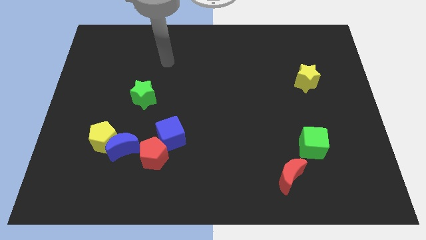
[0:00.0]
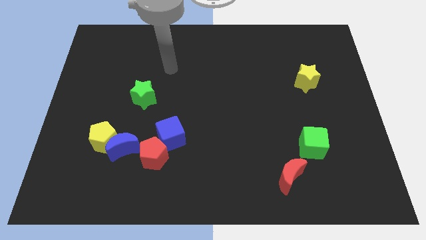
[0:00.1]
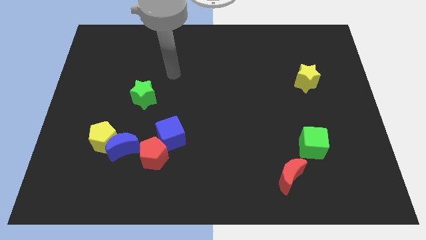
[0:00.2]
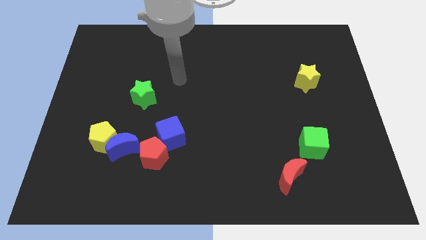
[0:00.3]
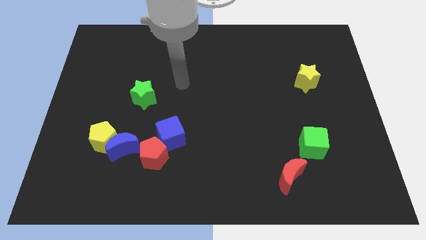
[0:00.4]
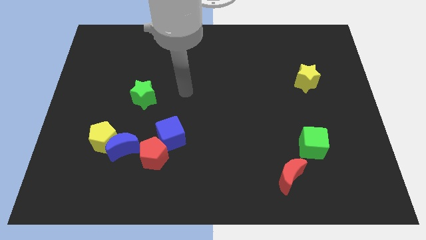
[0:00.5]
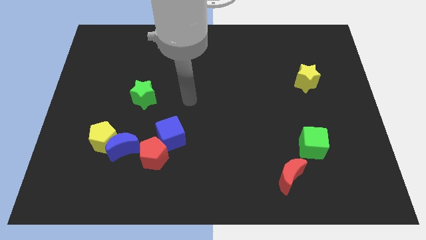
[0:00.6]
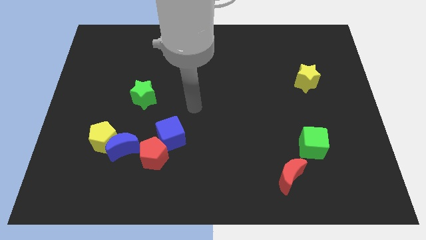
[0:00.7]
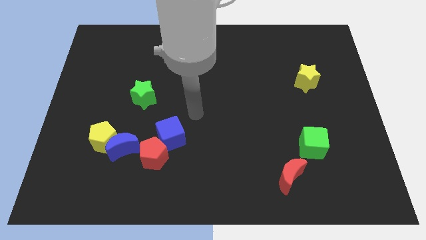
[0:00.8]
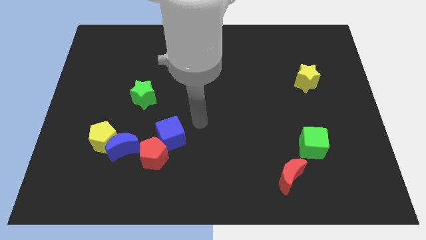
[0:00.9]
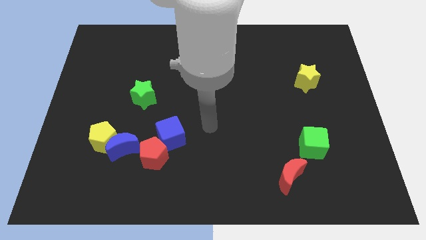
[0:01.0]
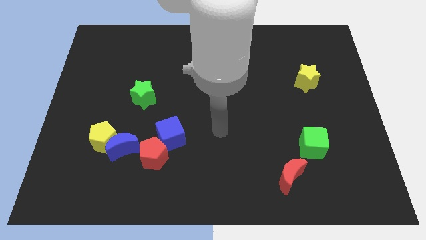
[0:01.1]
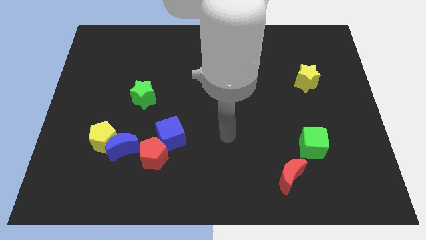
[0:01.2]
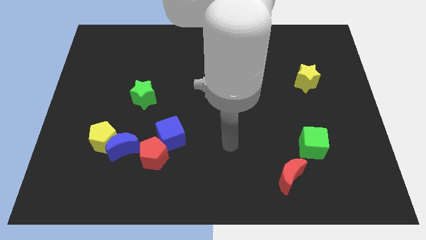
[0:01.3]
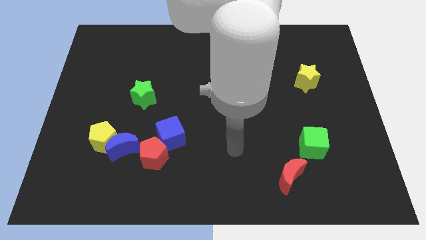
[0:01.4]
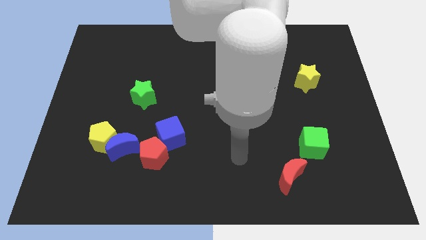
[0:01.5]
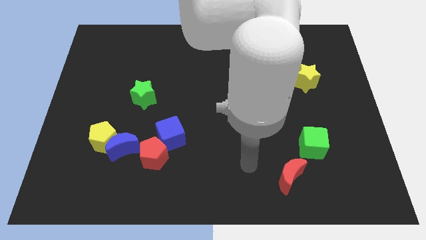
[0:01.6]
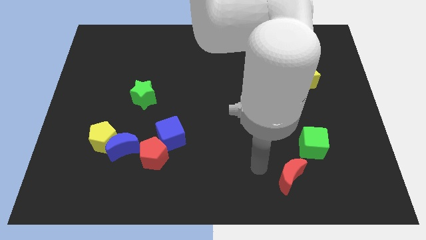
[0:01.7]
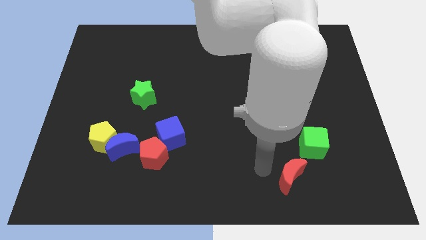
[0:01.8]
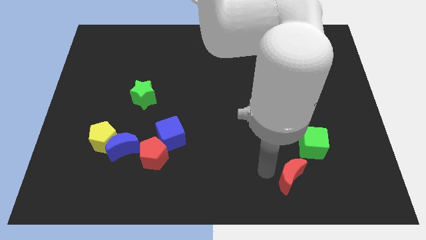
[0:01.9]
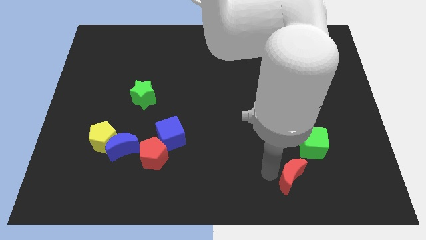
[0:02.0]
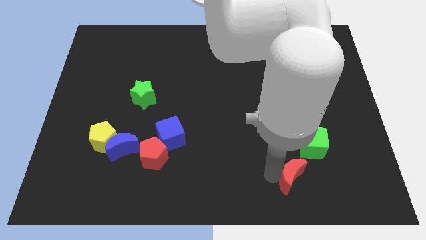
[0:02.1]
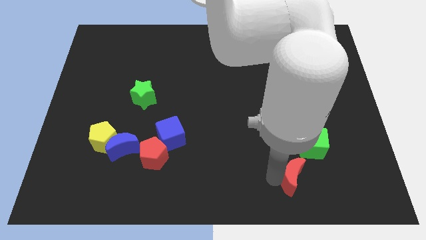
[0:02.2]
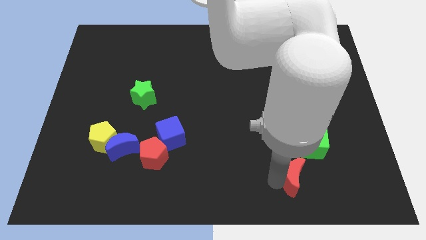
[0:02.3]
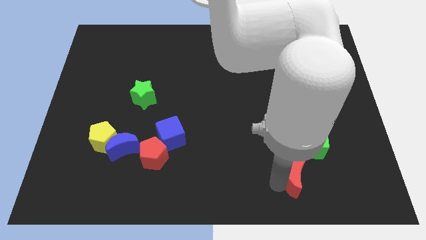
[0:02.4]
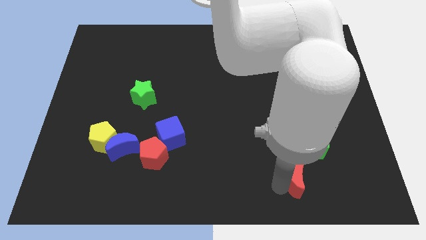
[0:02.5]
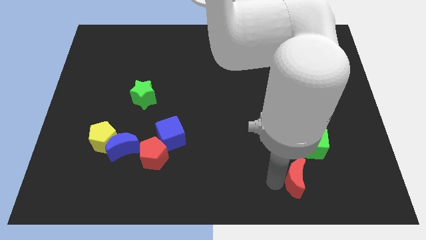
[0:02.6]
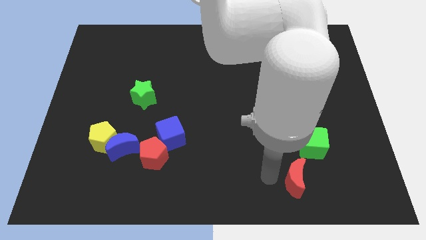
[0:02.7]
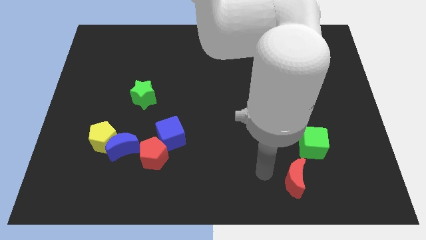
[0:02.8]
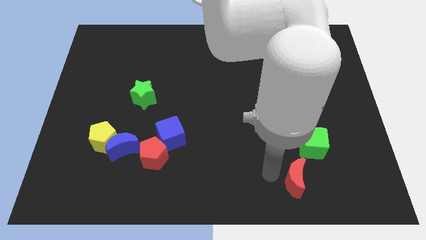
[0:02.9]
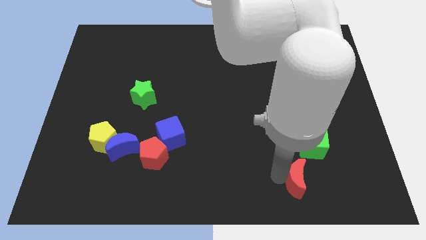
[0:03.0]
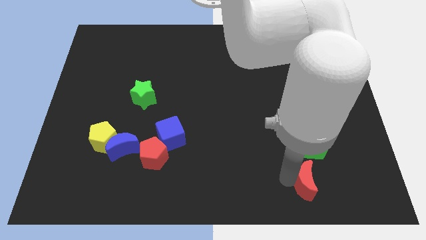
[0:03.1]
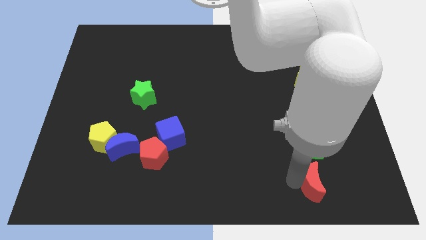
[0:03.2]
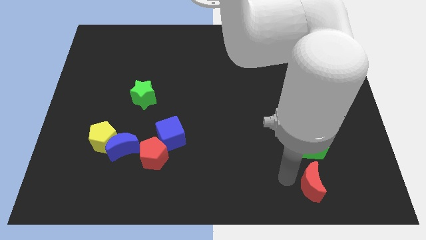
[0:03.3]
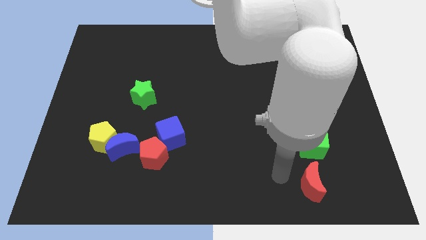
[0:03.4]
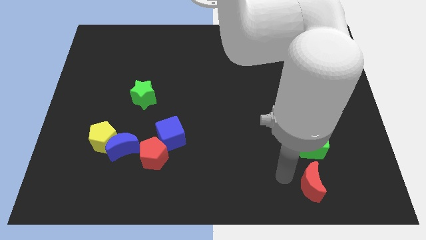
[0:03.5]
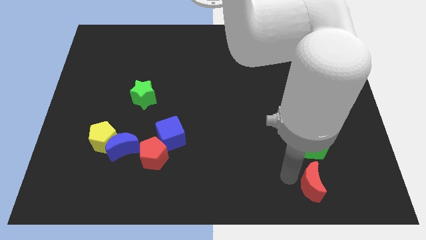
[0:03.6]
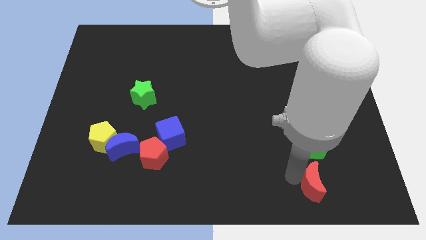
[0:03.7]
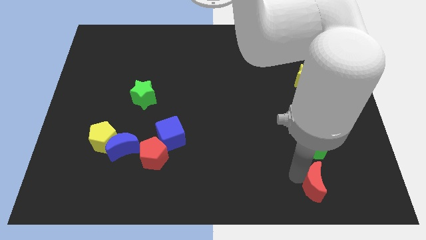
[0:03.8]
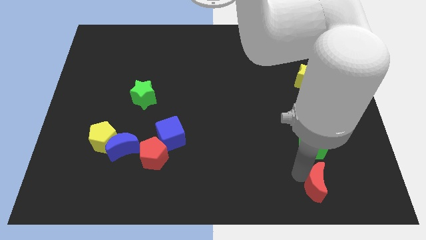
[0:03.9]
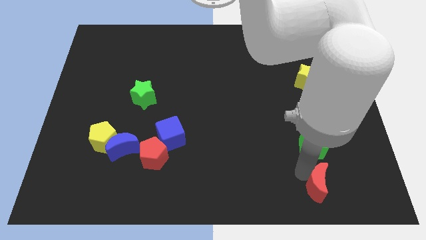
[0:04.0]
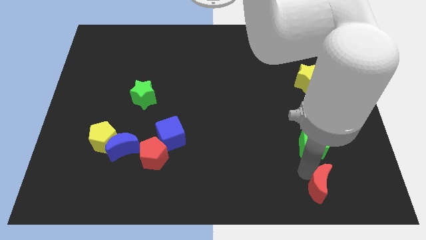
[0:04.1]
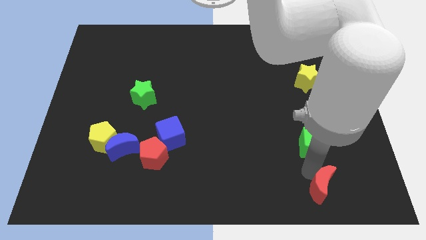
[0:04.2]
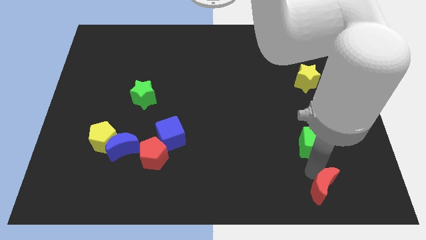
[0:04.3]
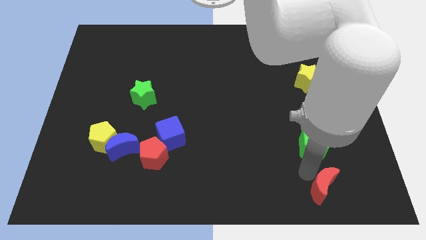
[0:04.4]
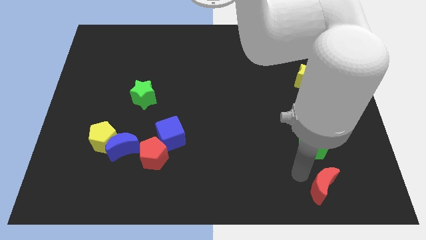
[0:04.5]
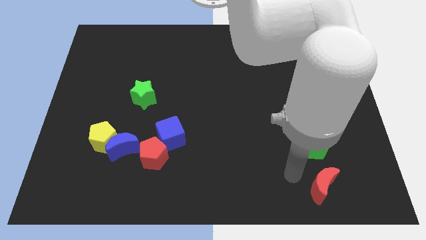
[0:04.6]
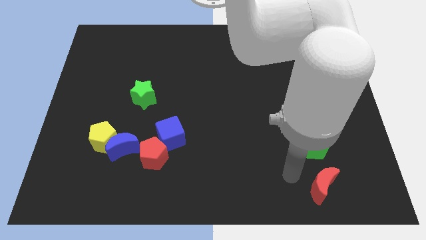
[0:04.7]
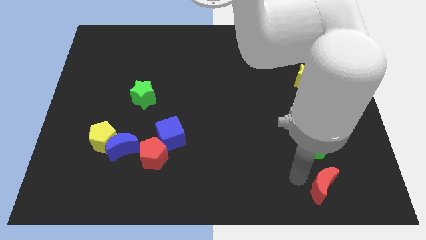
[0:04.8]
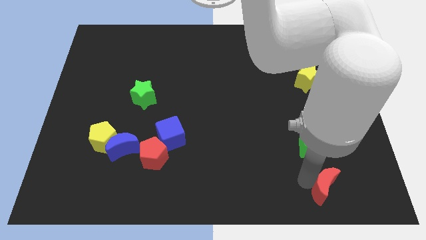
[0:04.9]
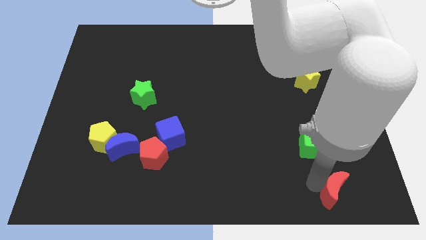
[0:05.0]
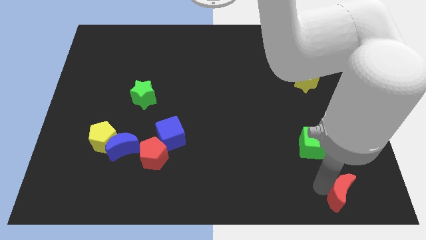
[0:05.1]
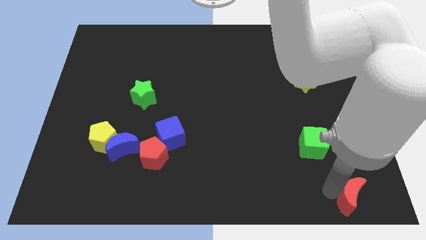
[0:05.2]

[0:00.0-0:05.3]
slide the red moon to the bottom right of the board

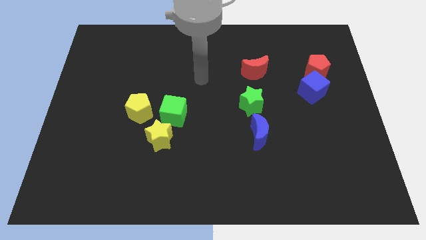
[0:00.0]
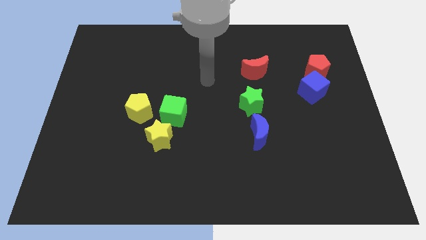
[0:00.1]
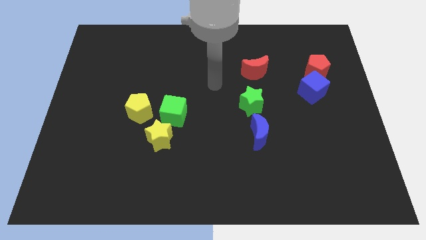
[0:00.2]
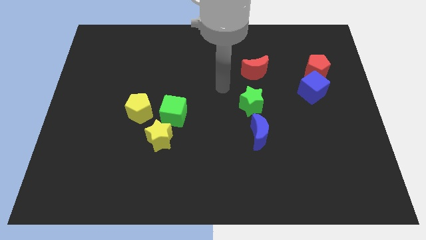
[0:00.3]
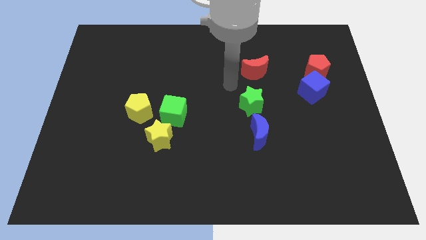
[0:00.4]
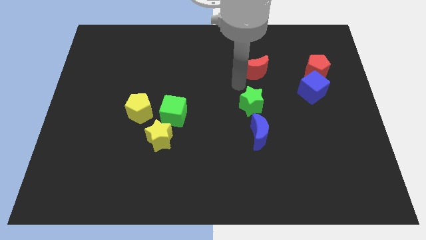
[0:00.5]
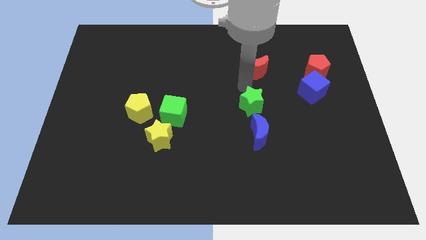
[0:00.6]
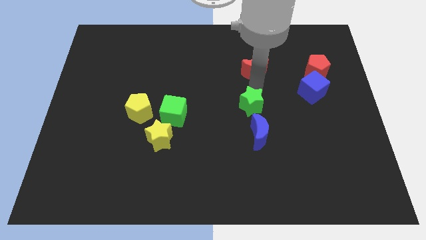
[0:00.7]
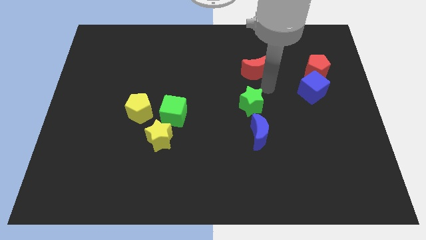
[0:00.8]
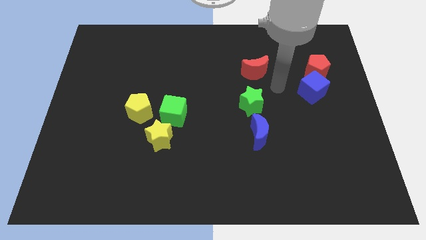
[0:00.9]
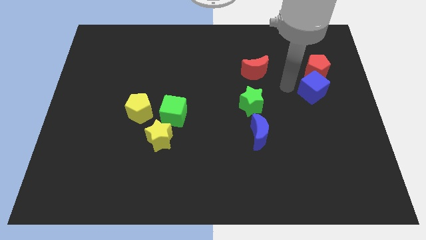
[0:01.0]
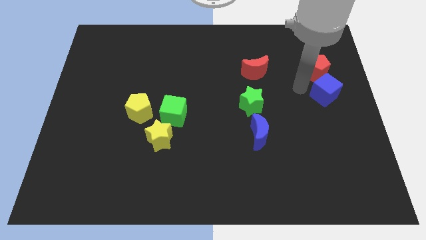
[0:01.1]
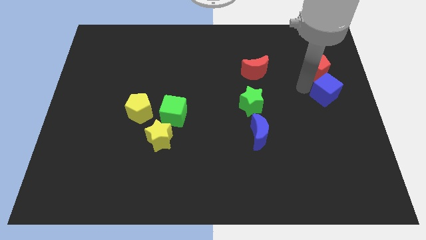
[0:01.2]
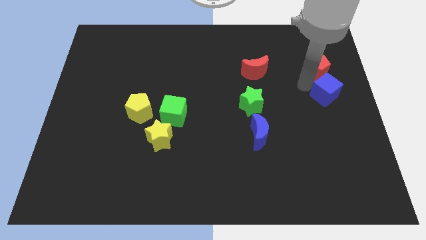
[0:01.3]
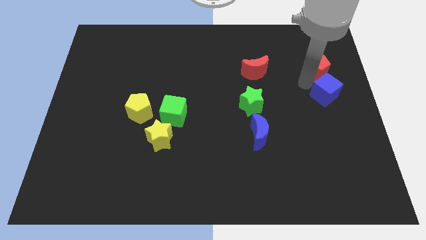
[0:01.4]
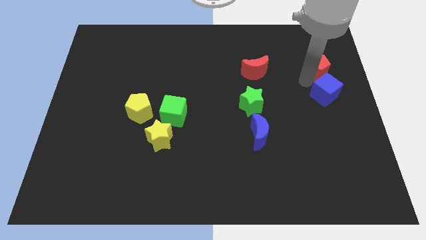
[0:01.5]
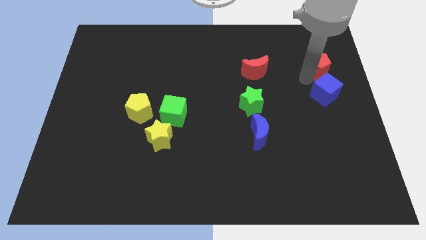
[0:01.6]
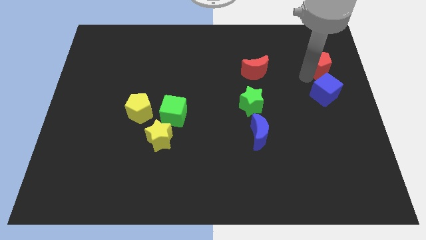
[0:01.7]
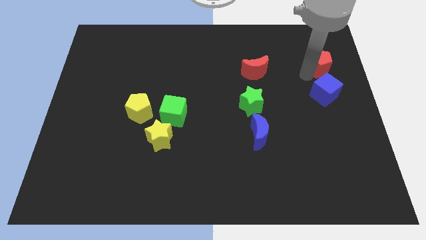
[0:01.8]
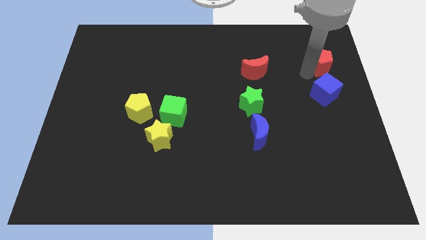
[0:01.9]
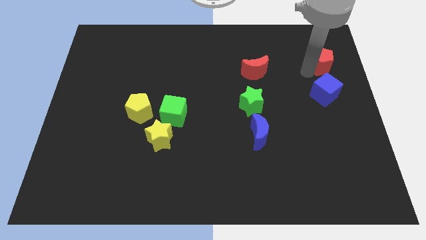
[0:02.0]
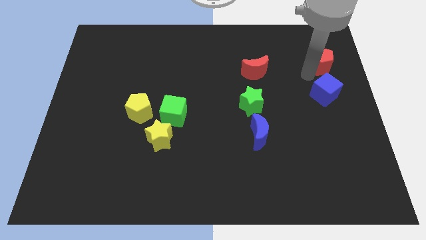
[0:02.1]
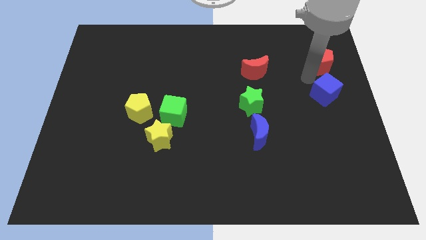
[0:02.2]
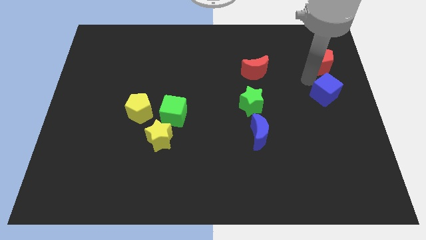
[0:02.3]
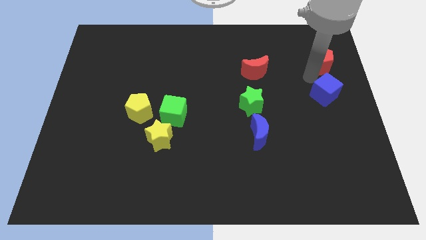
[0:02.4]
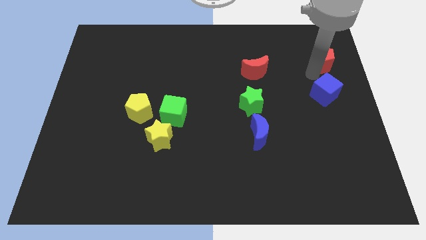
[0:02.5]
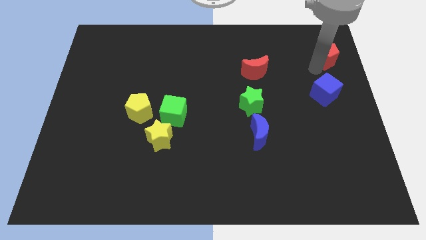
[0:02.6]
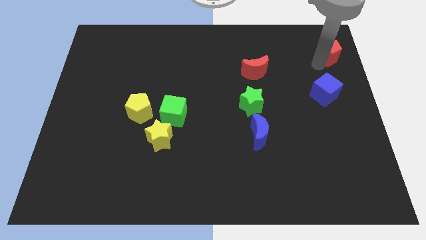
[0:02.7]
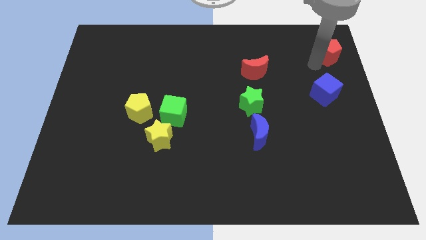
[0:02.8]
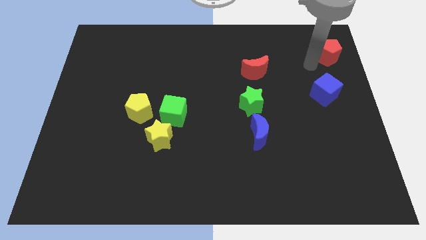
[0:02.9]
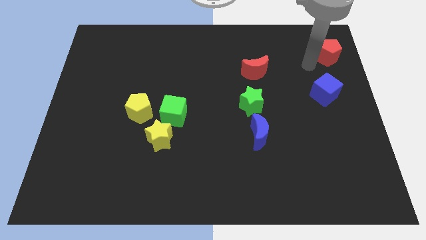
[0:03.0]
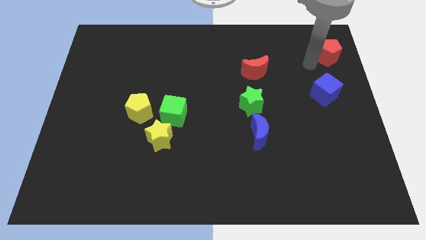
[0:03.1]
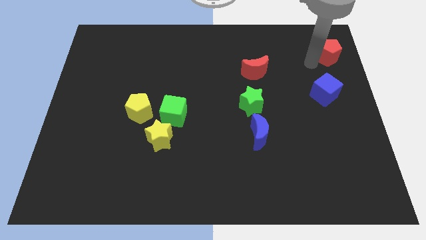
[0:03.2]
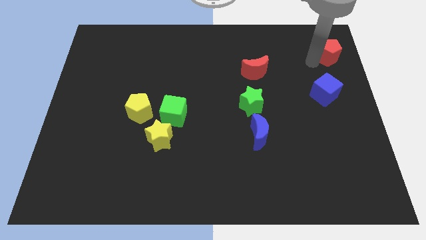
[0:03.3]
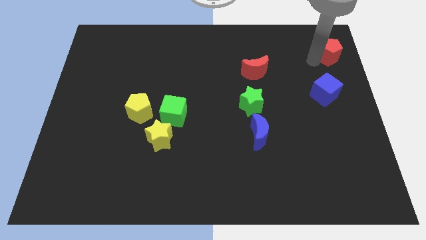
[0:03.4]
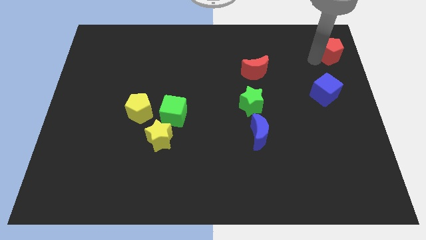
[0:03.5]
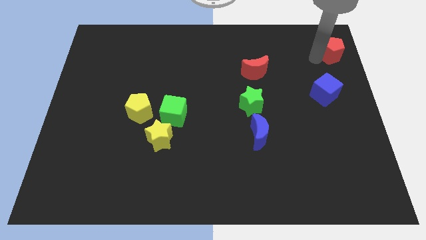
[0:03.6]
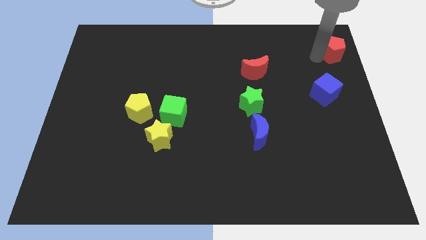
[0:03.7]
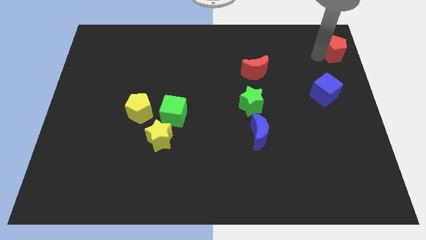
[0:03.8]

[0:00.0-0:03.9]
push the red pentagon to the upper right corner
